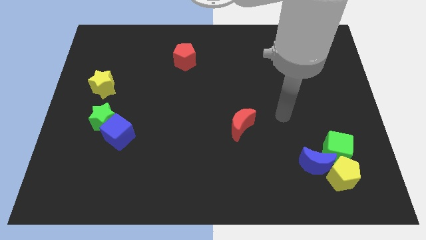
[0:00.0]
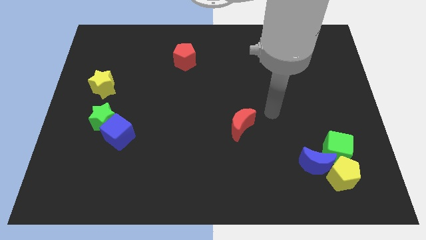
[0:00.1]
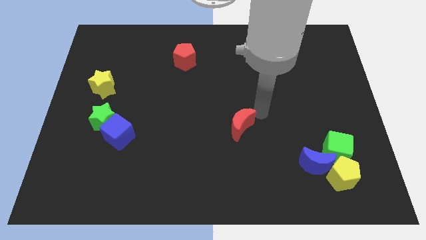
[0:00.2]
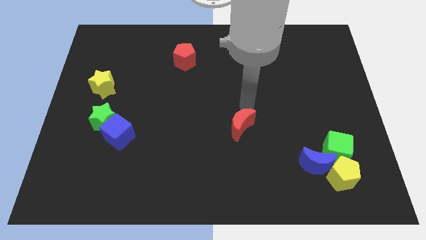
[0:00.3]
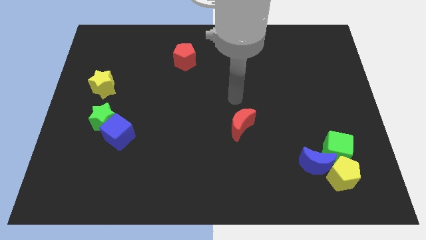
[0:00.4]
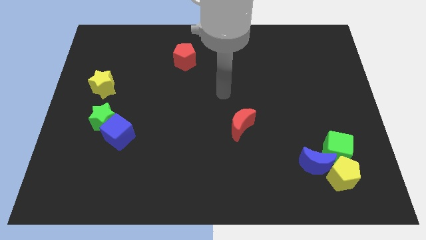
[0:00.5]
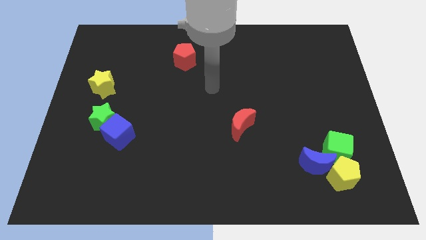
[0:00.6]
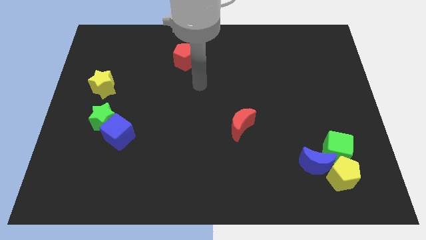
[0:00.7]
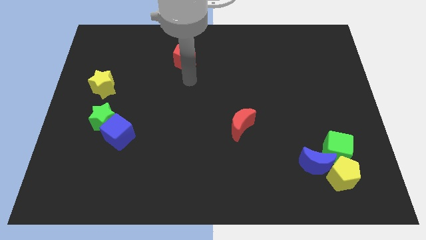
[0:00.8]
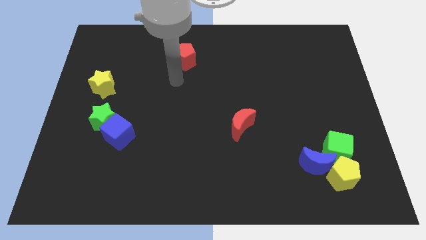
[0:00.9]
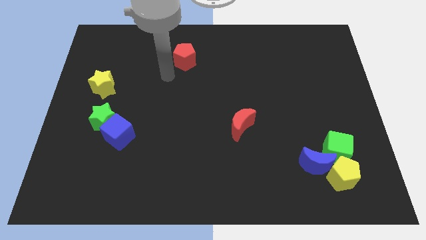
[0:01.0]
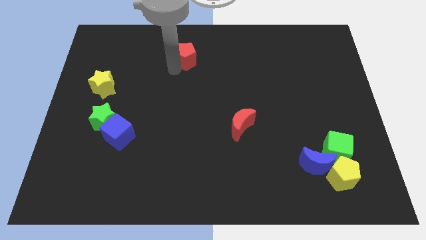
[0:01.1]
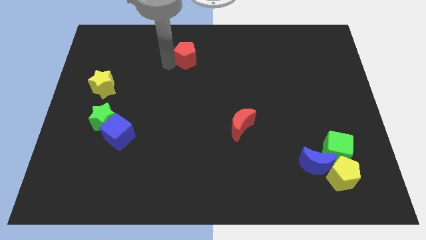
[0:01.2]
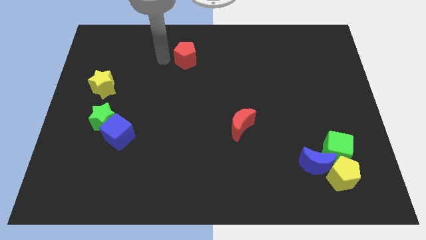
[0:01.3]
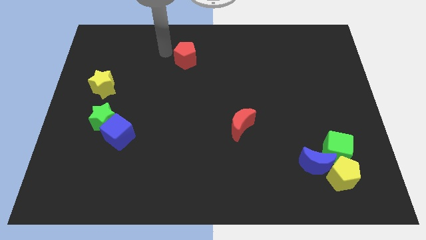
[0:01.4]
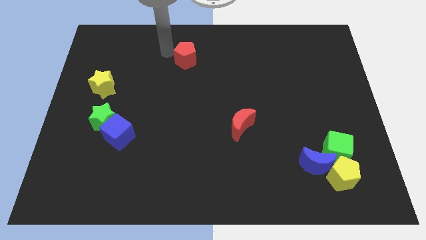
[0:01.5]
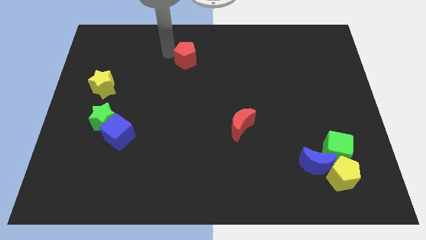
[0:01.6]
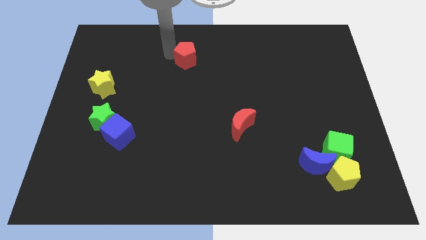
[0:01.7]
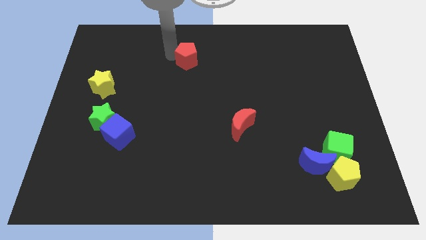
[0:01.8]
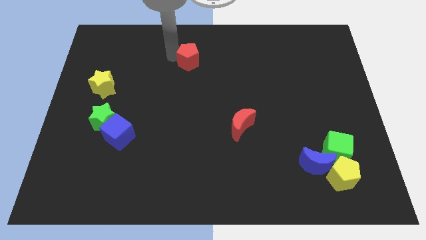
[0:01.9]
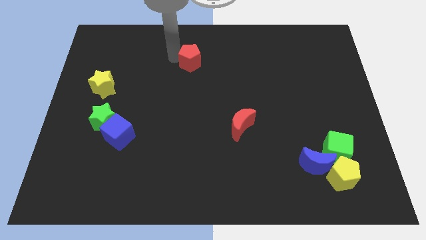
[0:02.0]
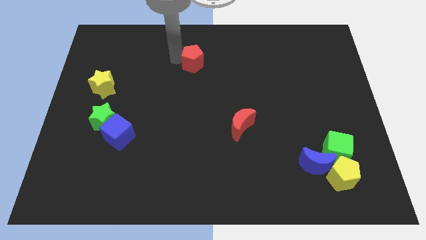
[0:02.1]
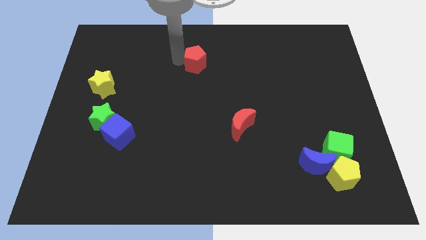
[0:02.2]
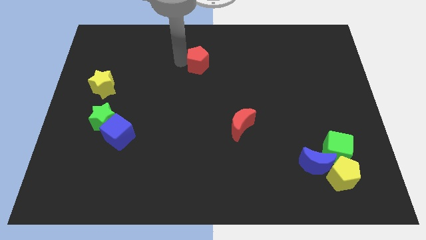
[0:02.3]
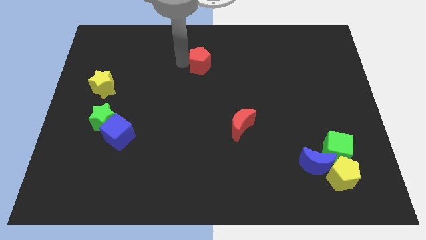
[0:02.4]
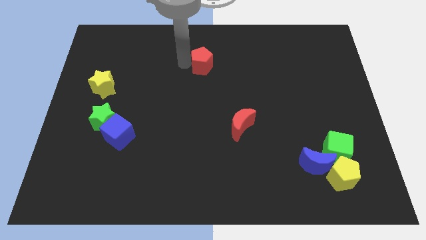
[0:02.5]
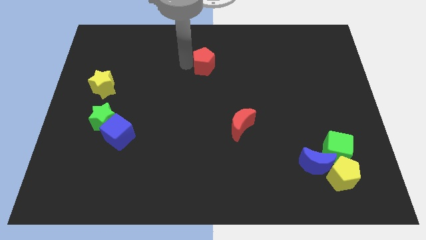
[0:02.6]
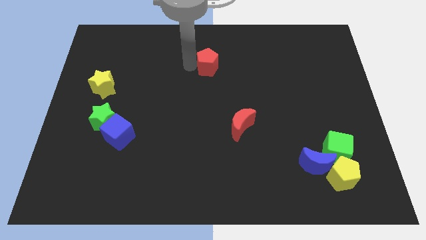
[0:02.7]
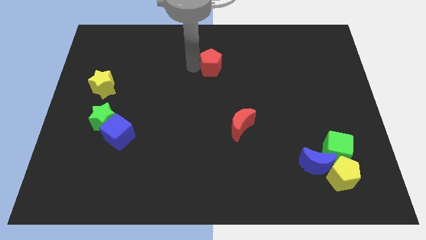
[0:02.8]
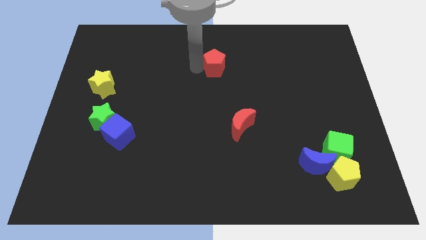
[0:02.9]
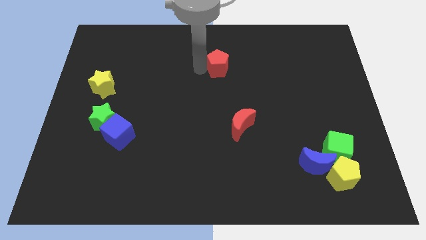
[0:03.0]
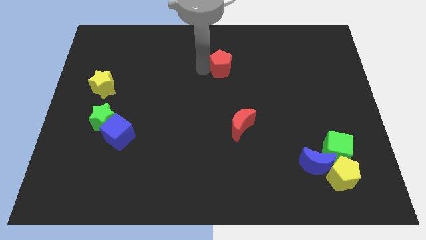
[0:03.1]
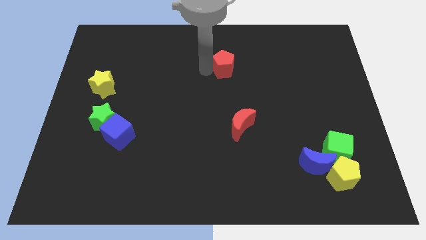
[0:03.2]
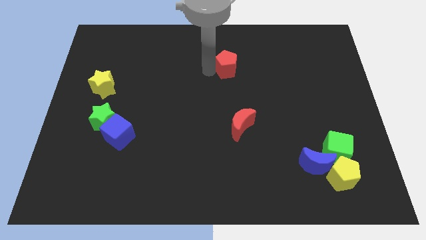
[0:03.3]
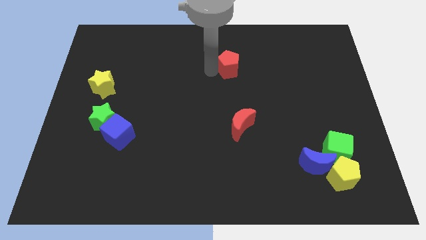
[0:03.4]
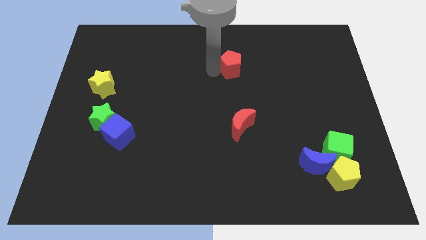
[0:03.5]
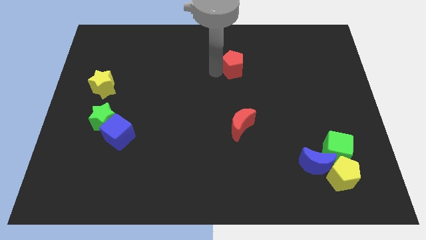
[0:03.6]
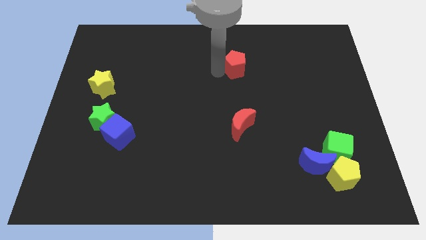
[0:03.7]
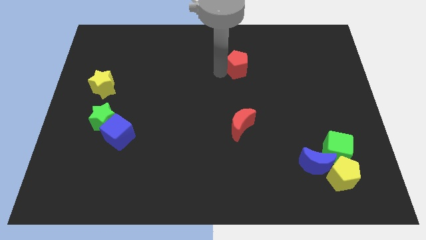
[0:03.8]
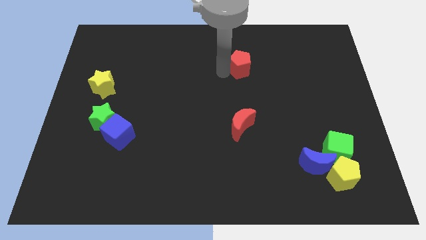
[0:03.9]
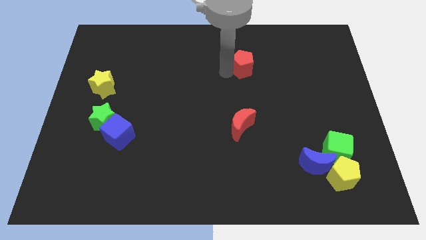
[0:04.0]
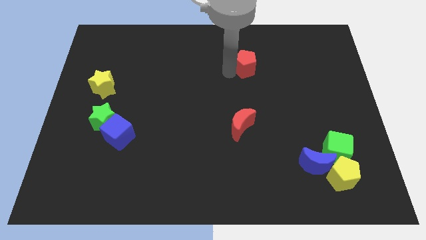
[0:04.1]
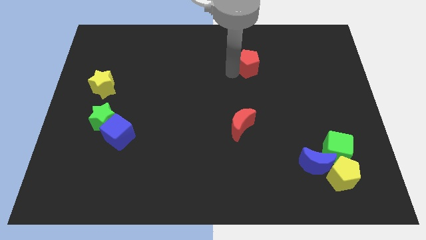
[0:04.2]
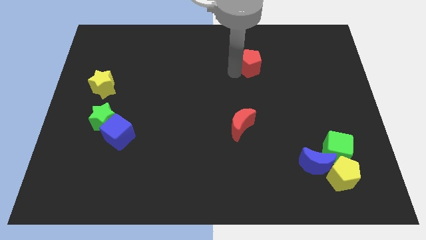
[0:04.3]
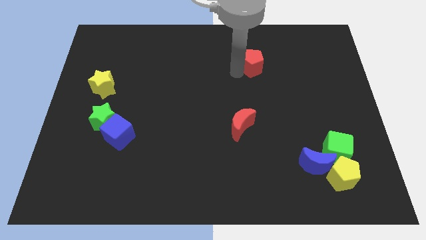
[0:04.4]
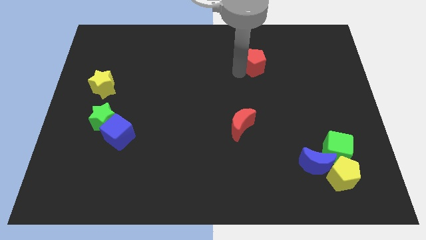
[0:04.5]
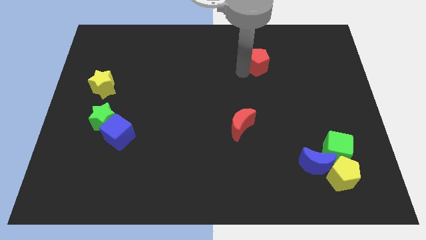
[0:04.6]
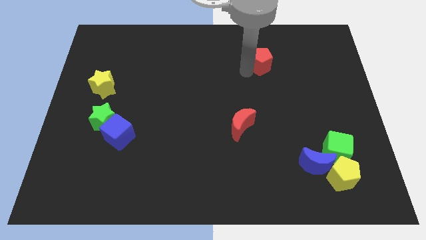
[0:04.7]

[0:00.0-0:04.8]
push the red pentagon to the right

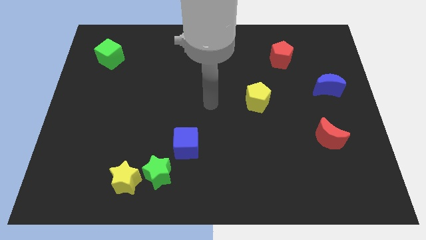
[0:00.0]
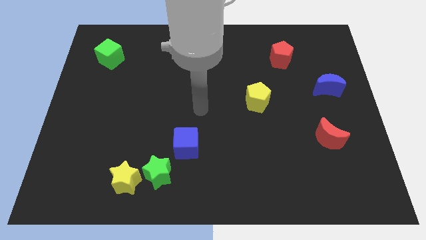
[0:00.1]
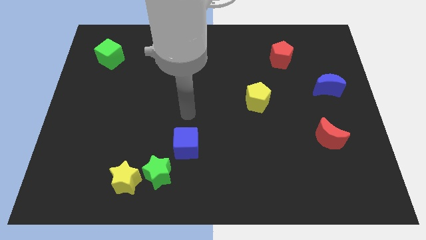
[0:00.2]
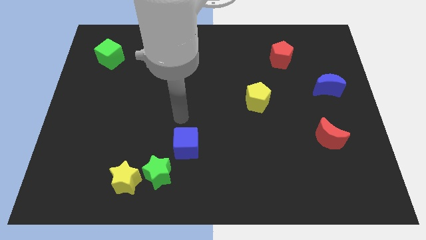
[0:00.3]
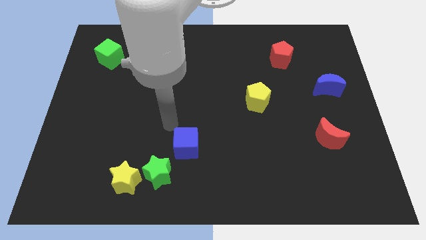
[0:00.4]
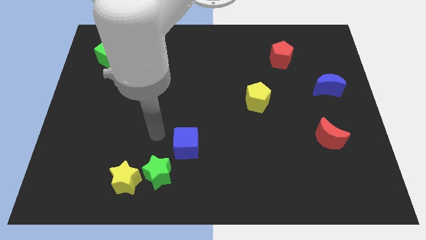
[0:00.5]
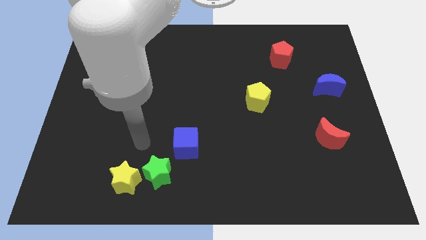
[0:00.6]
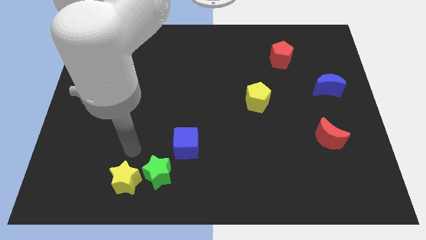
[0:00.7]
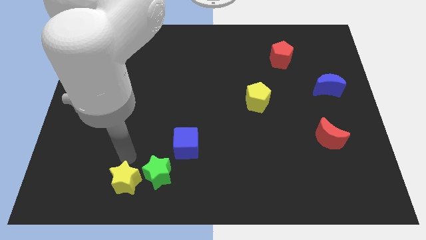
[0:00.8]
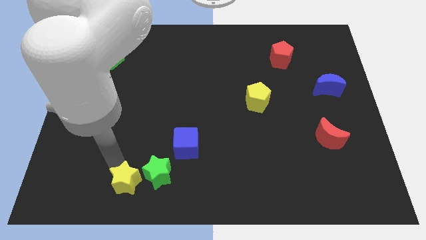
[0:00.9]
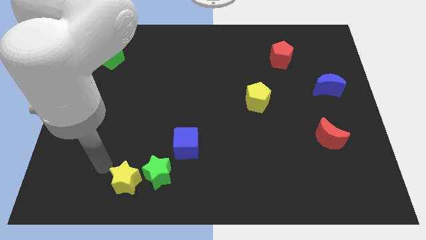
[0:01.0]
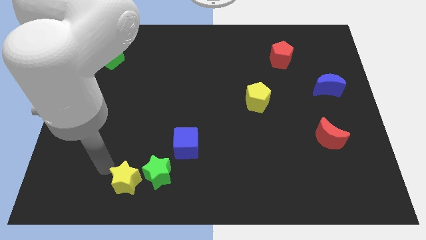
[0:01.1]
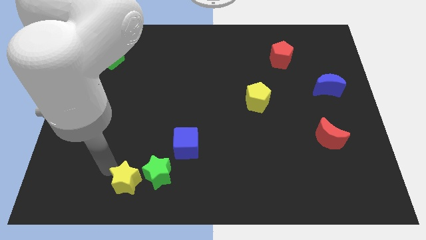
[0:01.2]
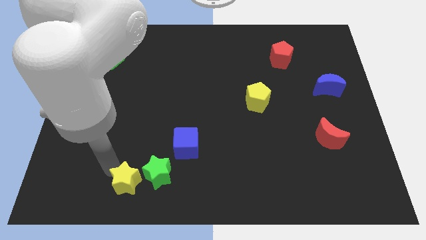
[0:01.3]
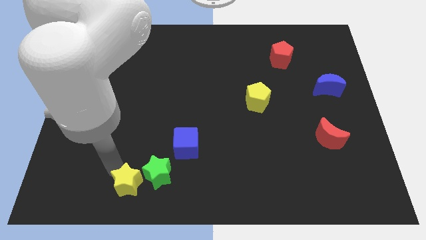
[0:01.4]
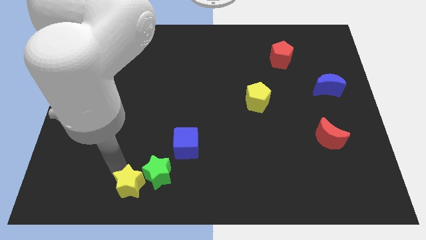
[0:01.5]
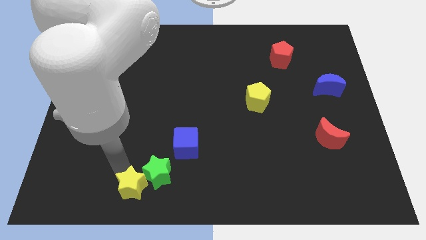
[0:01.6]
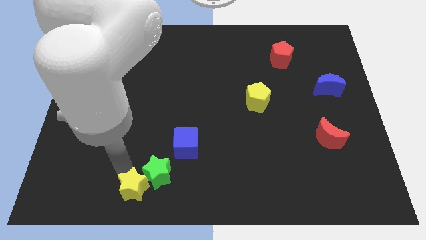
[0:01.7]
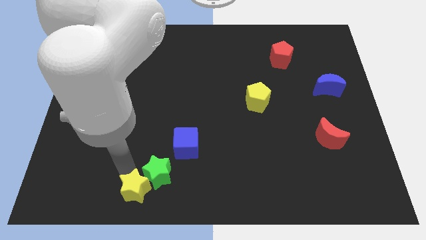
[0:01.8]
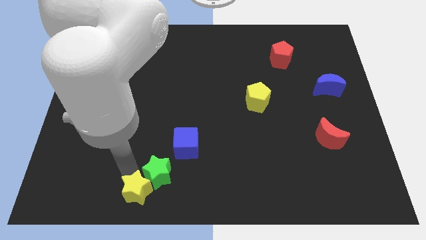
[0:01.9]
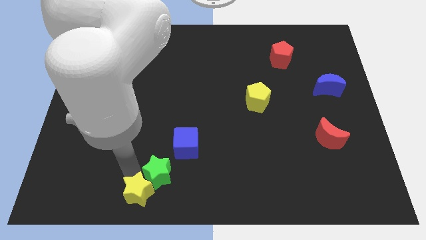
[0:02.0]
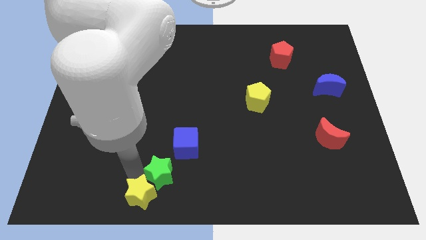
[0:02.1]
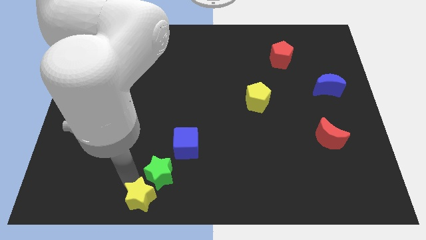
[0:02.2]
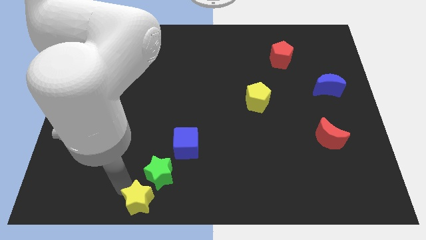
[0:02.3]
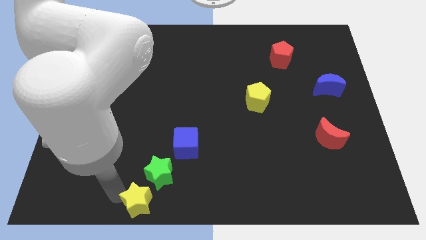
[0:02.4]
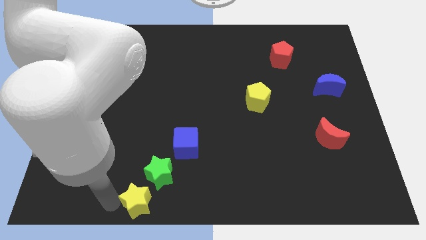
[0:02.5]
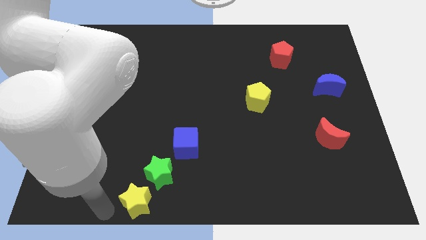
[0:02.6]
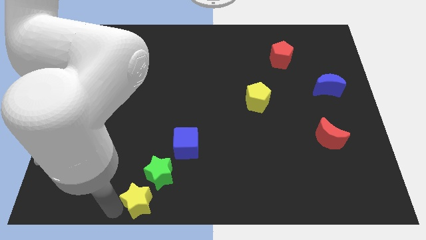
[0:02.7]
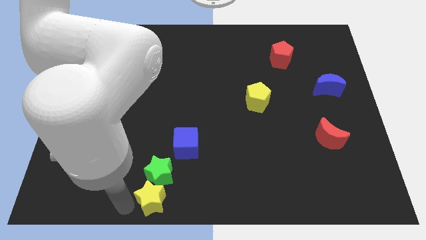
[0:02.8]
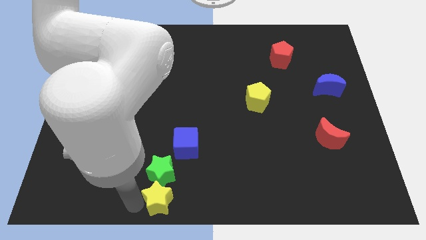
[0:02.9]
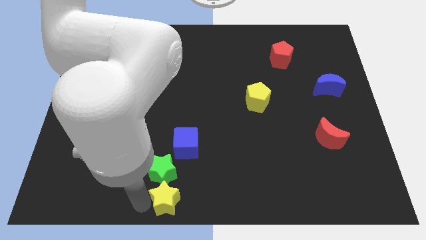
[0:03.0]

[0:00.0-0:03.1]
slightly push the yellow star right

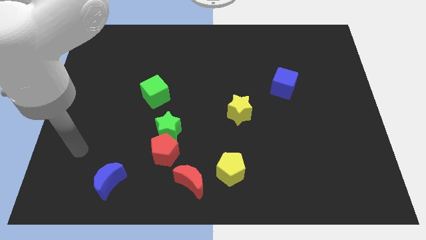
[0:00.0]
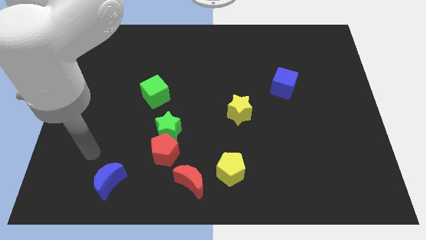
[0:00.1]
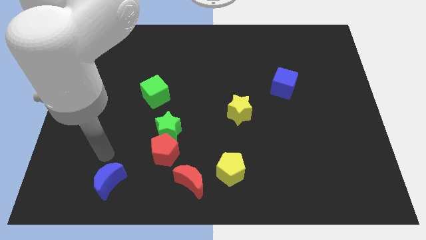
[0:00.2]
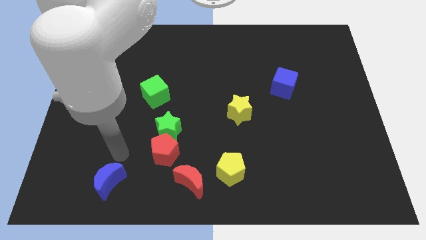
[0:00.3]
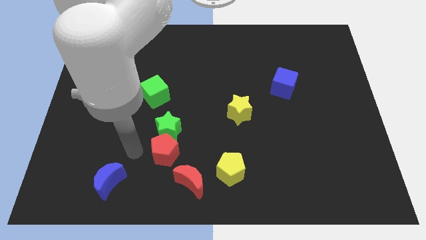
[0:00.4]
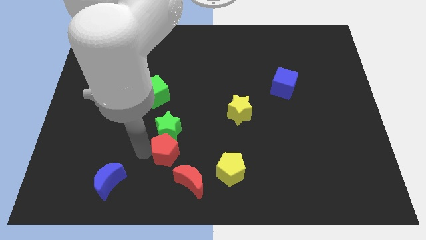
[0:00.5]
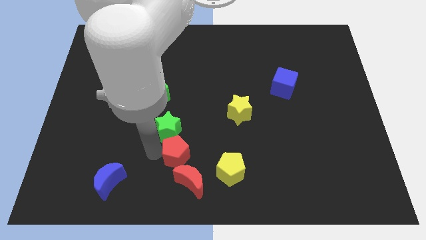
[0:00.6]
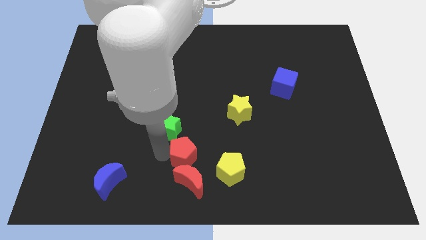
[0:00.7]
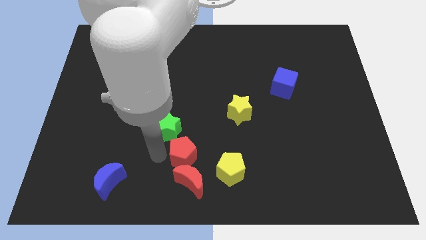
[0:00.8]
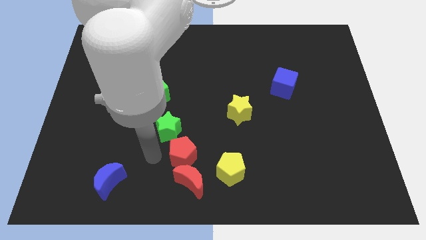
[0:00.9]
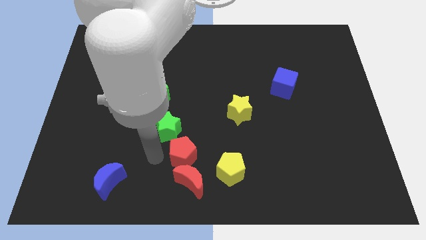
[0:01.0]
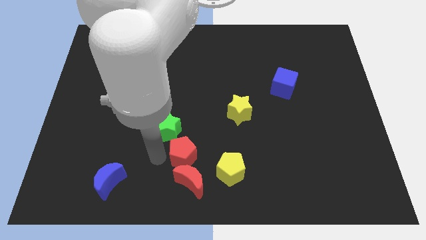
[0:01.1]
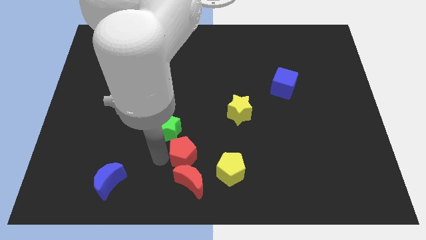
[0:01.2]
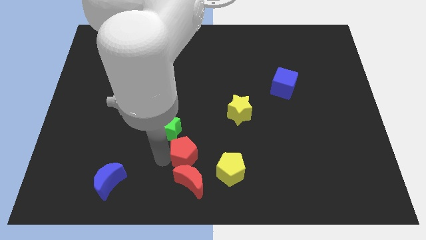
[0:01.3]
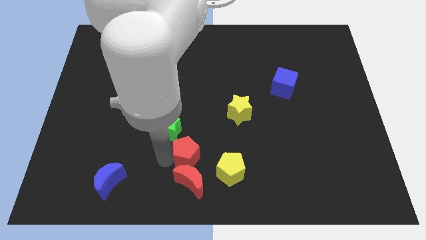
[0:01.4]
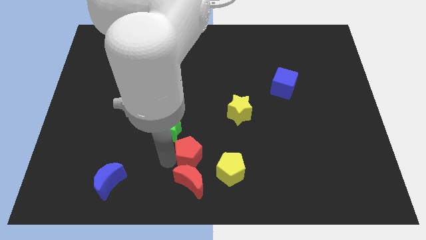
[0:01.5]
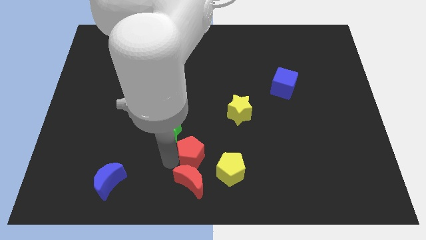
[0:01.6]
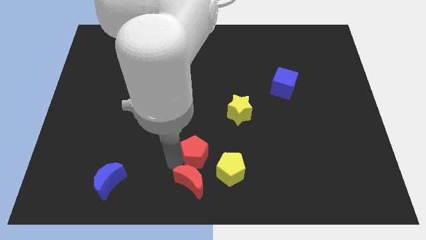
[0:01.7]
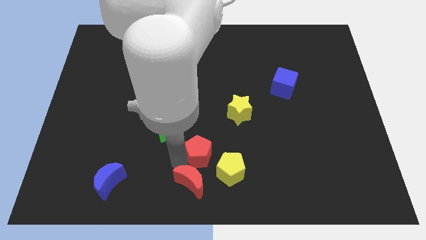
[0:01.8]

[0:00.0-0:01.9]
move the red pentagon somewhat right
